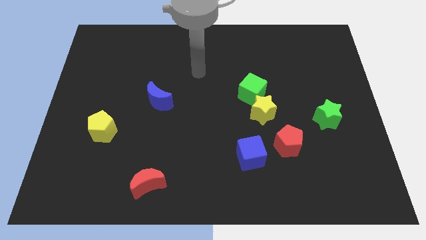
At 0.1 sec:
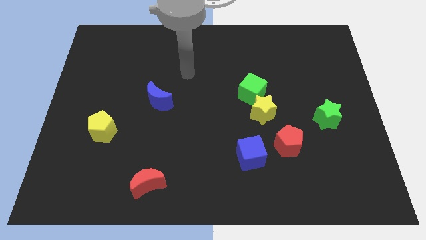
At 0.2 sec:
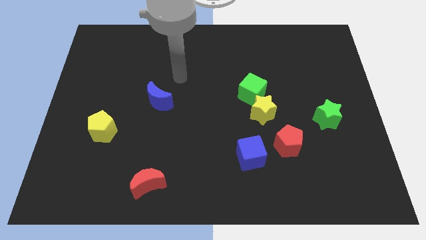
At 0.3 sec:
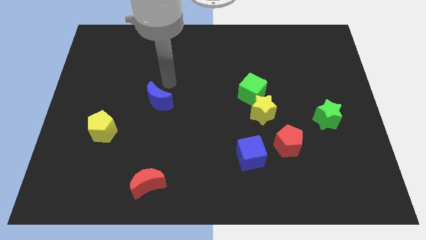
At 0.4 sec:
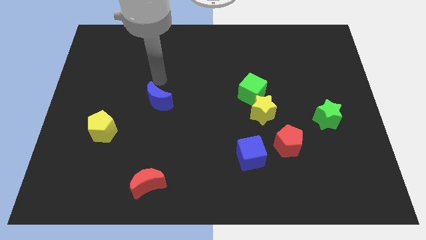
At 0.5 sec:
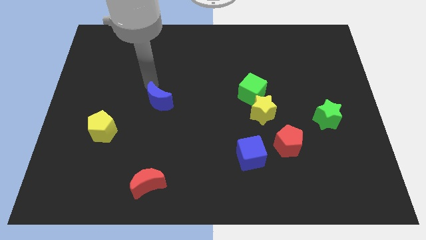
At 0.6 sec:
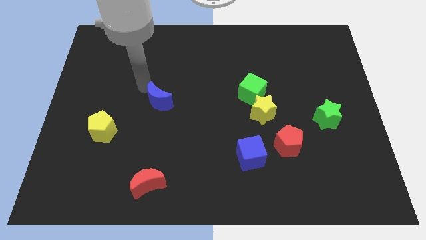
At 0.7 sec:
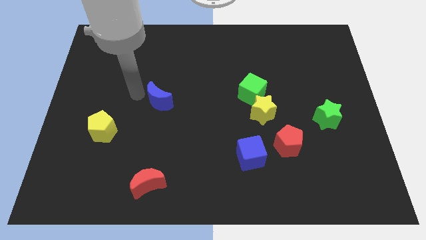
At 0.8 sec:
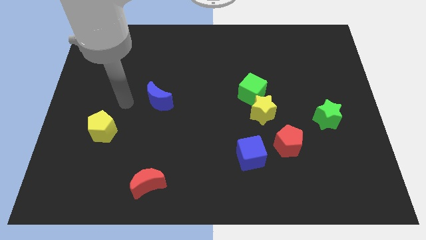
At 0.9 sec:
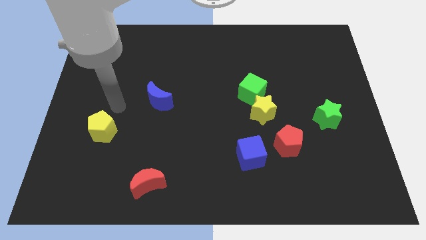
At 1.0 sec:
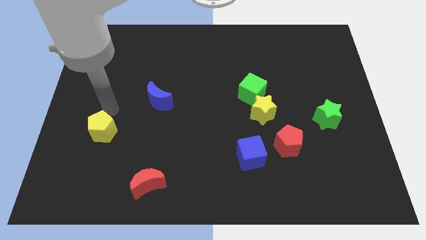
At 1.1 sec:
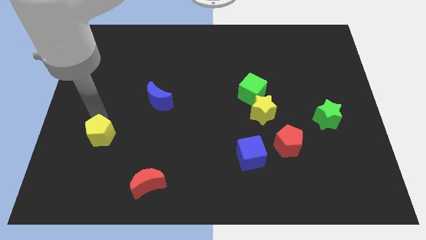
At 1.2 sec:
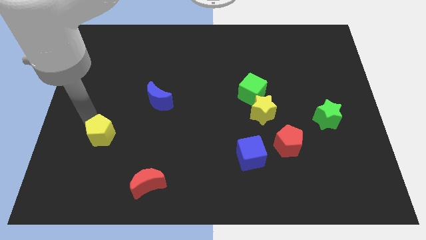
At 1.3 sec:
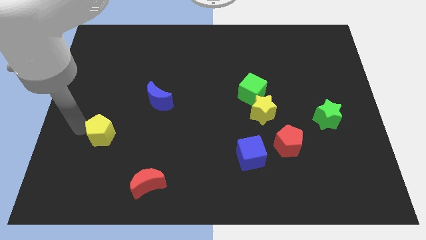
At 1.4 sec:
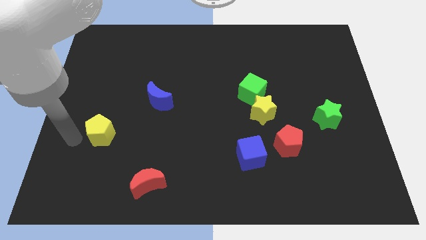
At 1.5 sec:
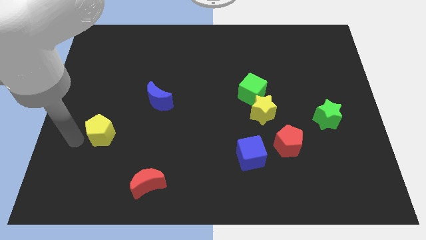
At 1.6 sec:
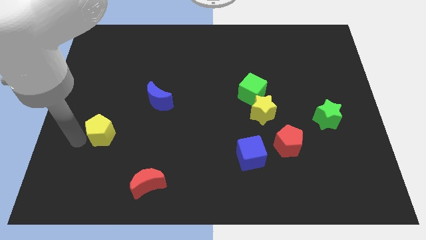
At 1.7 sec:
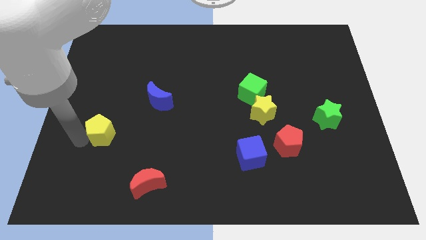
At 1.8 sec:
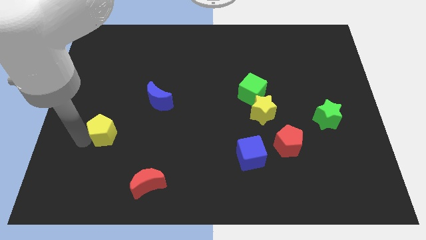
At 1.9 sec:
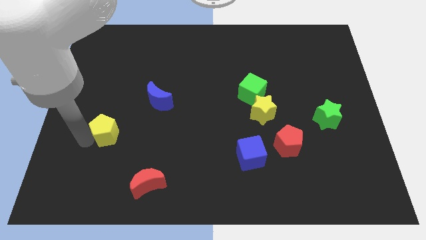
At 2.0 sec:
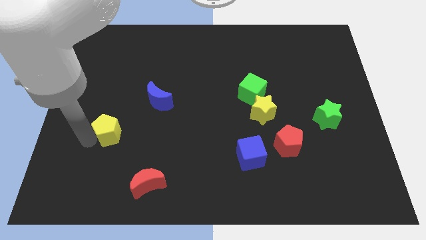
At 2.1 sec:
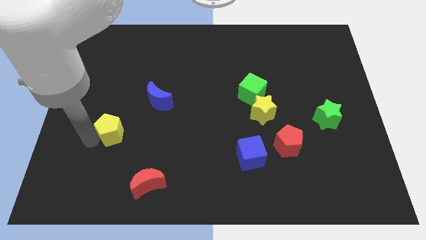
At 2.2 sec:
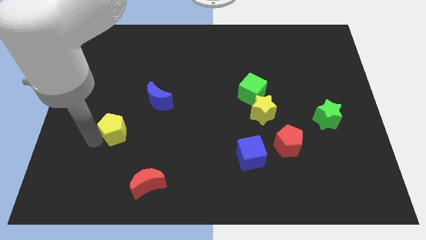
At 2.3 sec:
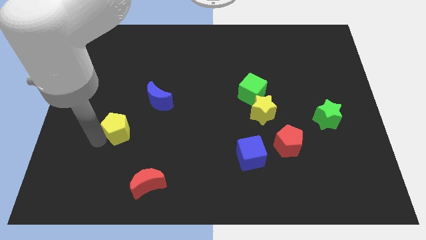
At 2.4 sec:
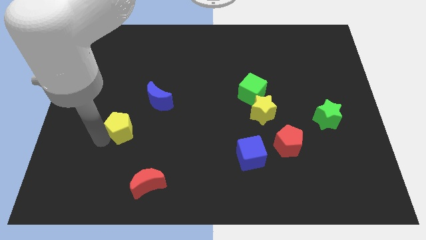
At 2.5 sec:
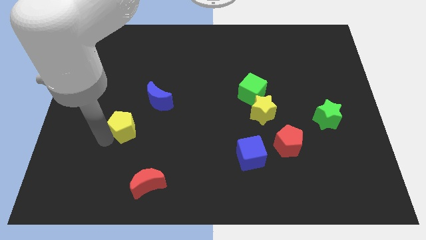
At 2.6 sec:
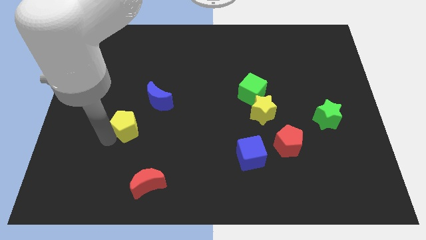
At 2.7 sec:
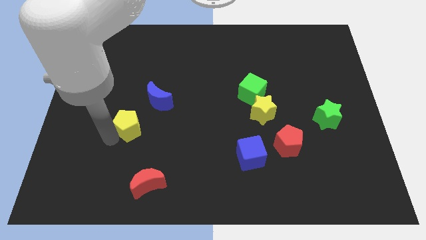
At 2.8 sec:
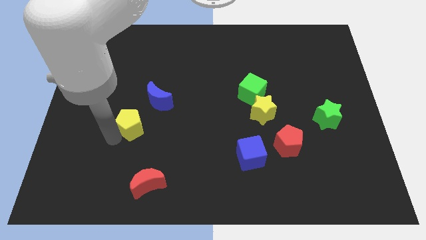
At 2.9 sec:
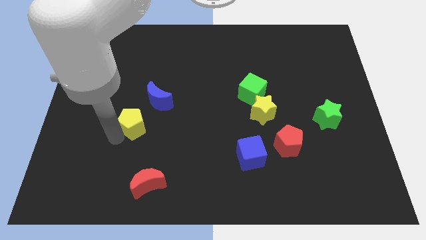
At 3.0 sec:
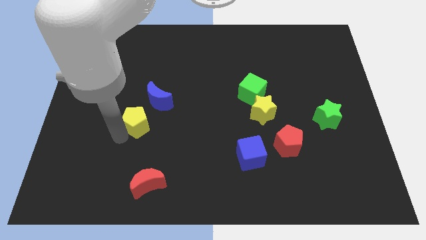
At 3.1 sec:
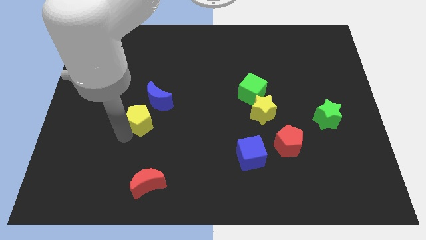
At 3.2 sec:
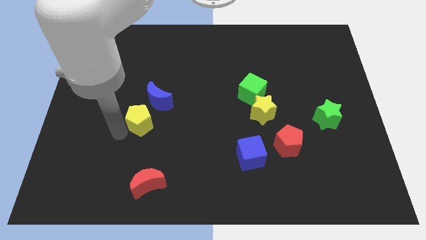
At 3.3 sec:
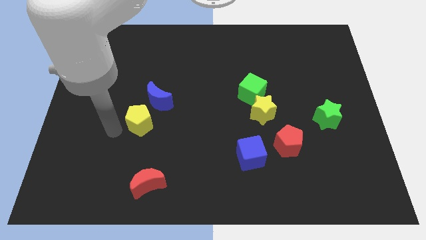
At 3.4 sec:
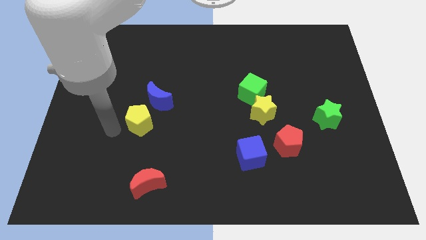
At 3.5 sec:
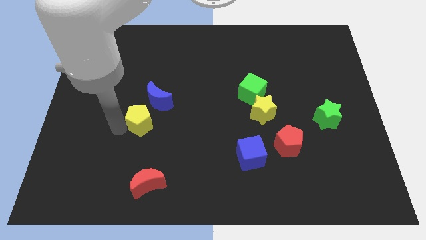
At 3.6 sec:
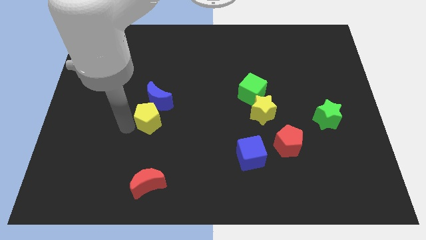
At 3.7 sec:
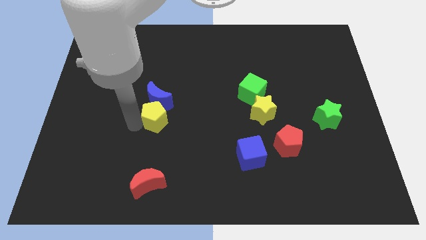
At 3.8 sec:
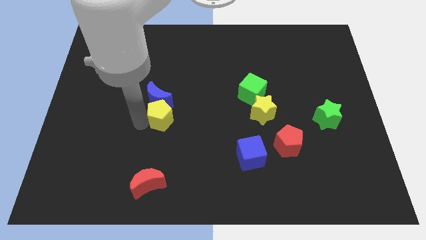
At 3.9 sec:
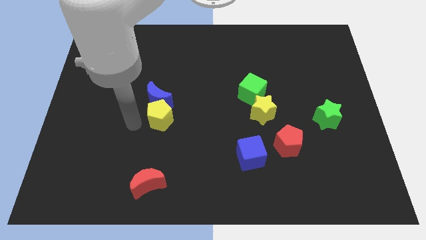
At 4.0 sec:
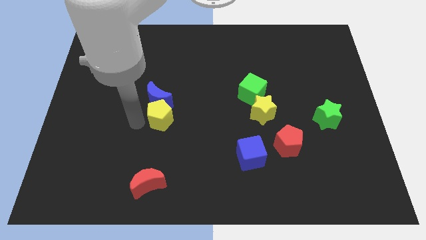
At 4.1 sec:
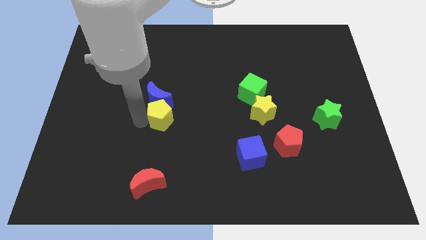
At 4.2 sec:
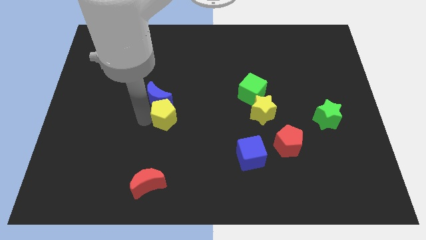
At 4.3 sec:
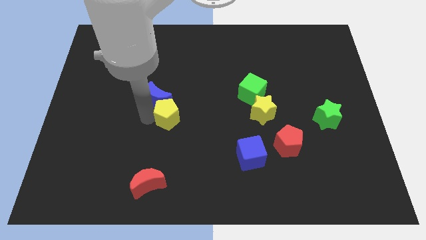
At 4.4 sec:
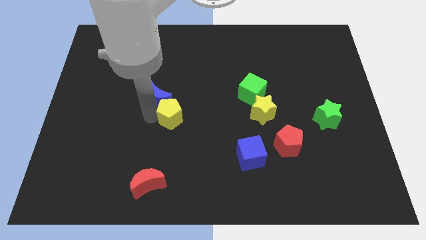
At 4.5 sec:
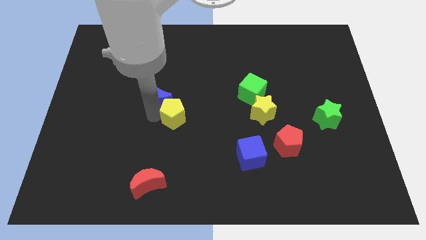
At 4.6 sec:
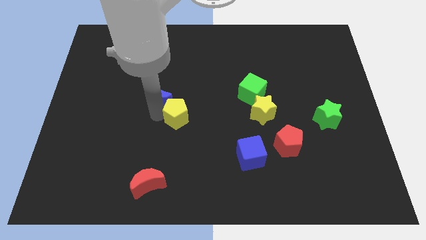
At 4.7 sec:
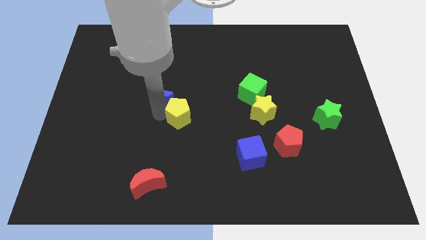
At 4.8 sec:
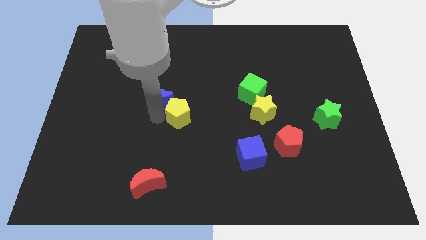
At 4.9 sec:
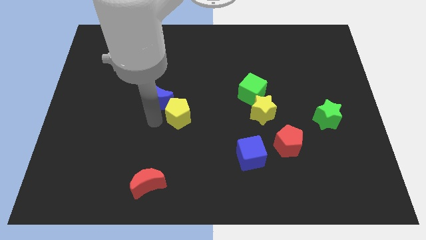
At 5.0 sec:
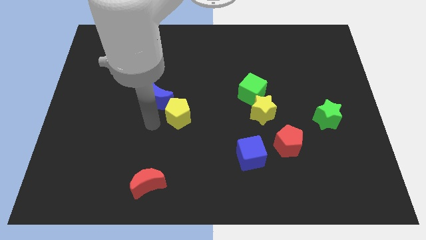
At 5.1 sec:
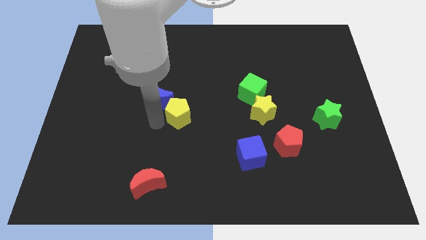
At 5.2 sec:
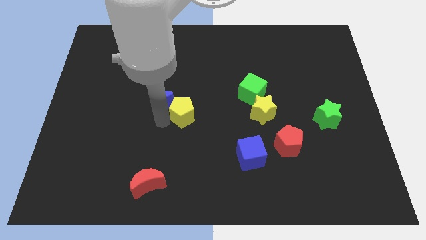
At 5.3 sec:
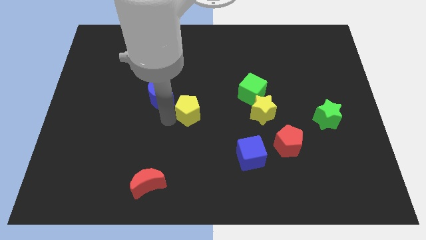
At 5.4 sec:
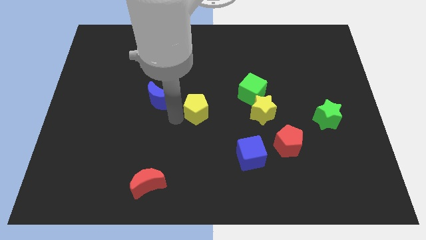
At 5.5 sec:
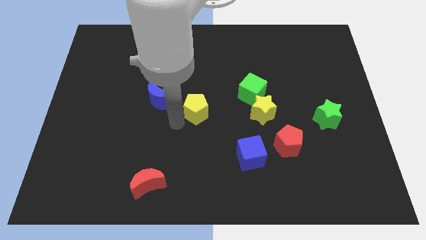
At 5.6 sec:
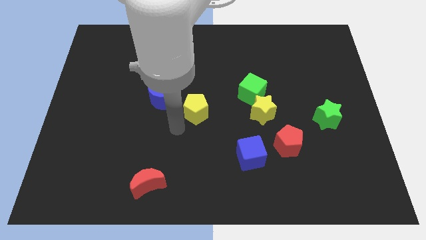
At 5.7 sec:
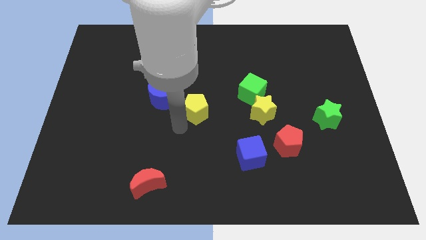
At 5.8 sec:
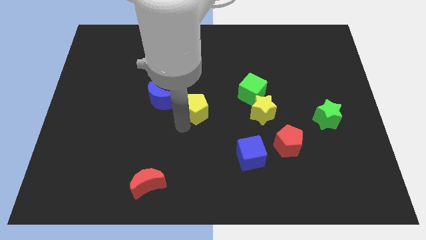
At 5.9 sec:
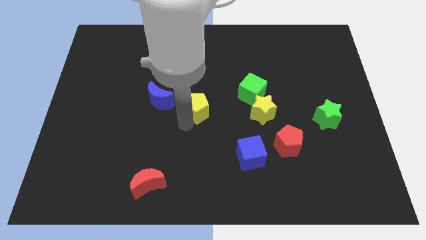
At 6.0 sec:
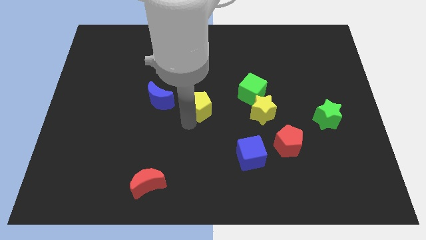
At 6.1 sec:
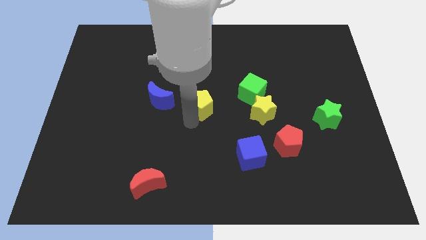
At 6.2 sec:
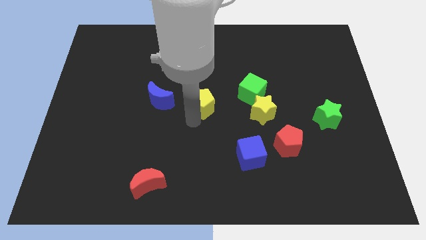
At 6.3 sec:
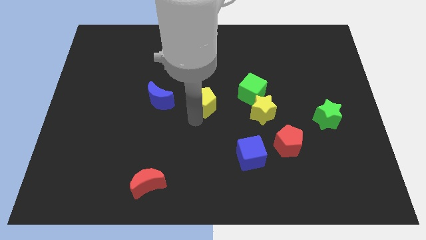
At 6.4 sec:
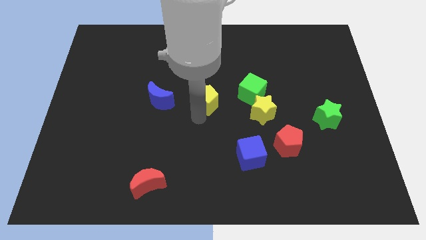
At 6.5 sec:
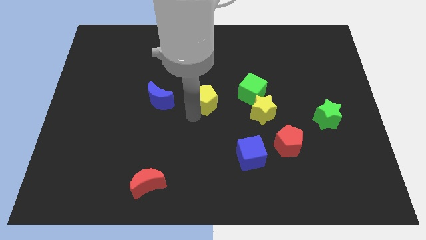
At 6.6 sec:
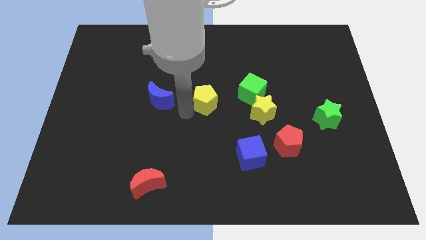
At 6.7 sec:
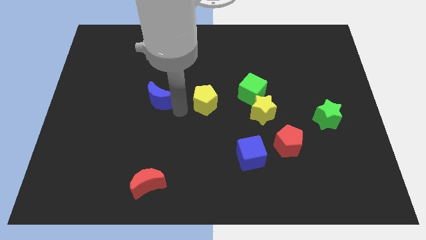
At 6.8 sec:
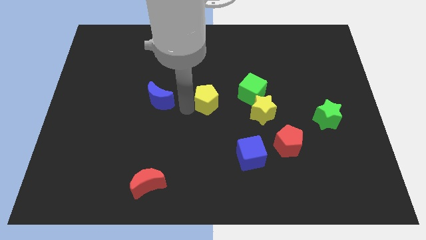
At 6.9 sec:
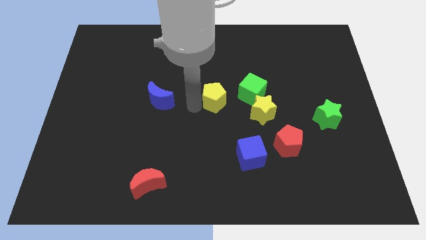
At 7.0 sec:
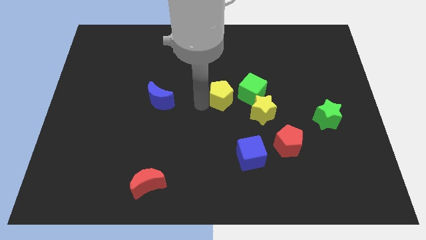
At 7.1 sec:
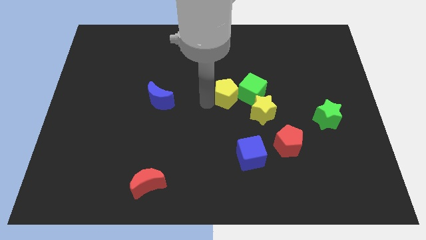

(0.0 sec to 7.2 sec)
put the yellow pentagon close to the green cube
